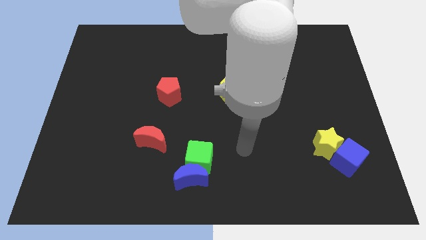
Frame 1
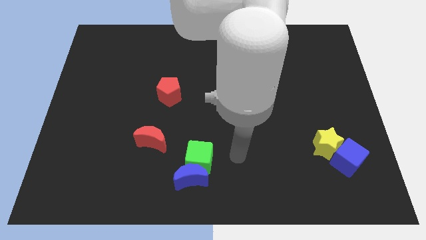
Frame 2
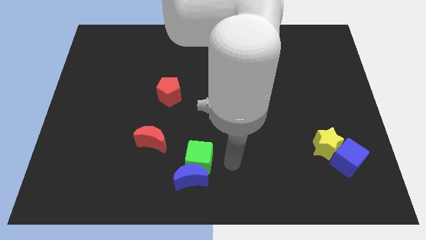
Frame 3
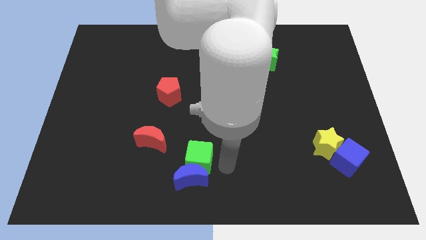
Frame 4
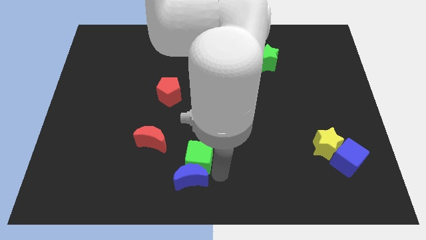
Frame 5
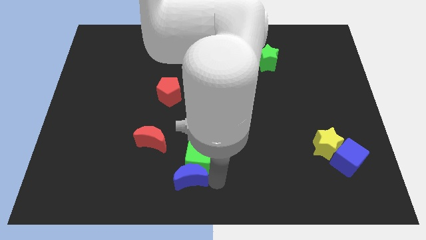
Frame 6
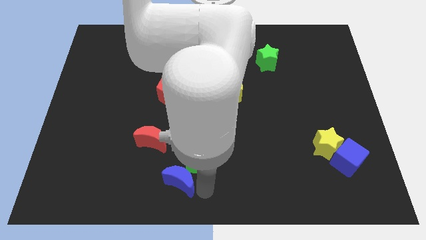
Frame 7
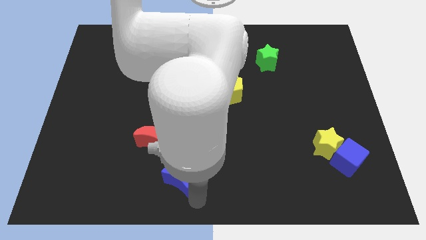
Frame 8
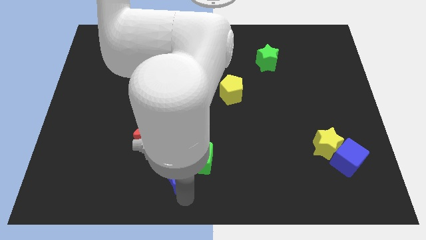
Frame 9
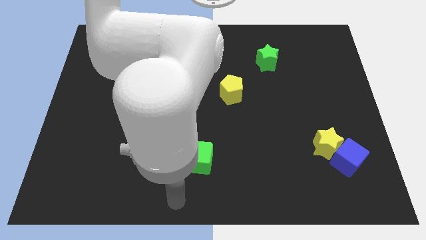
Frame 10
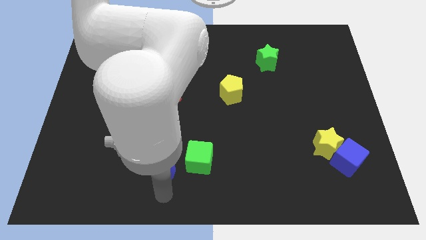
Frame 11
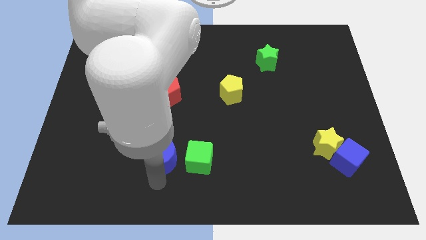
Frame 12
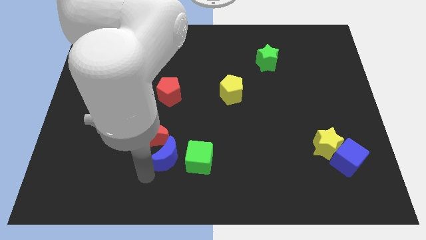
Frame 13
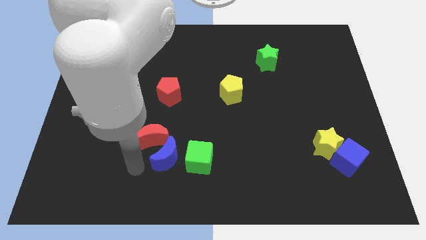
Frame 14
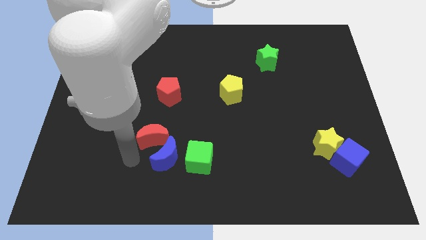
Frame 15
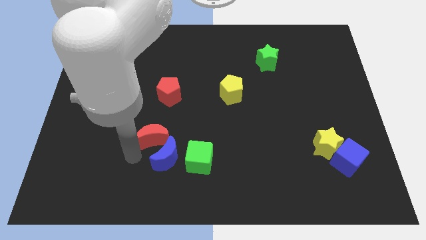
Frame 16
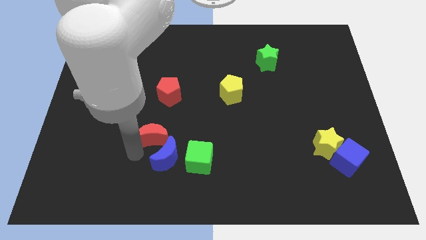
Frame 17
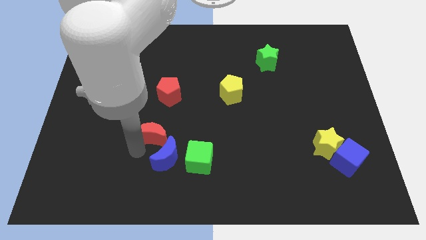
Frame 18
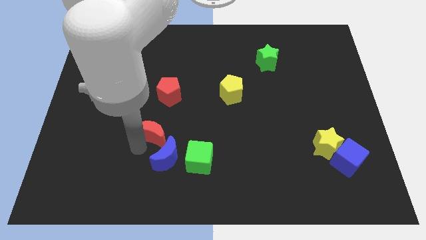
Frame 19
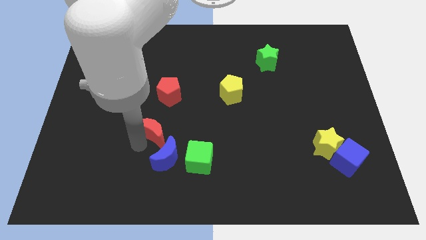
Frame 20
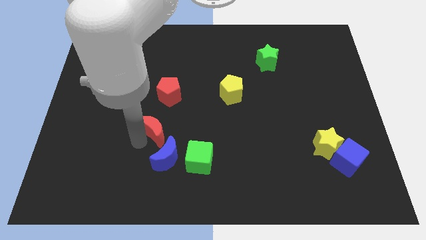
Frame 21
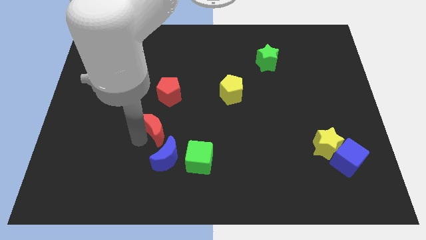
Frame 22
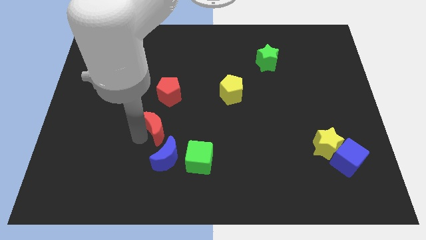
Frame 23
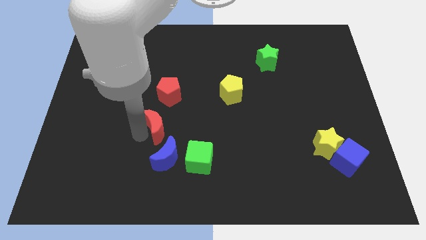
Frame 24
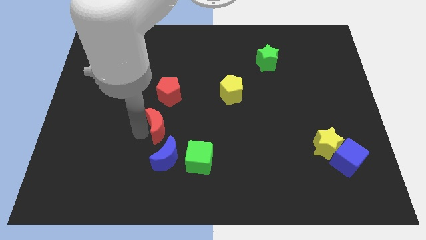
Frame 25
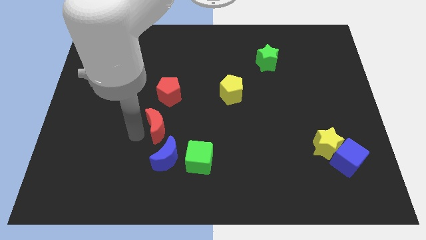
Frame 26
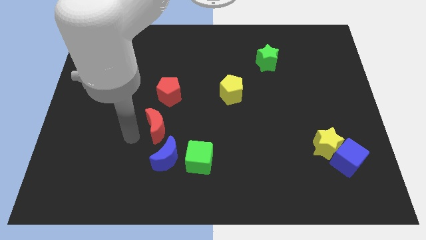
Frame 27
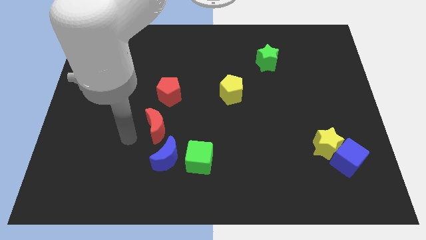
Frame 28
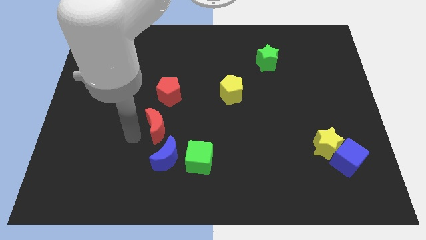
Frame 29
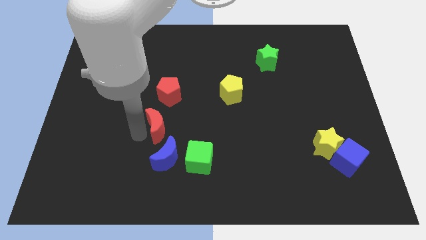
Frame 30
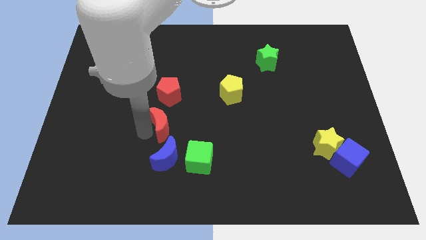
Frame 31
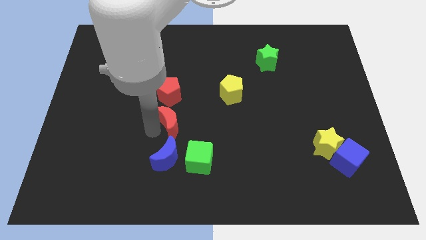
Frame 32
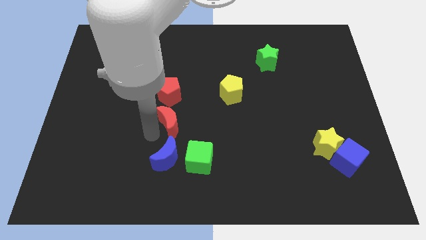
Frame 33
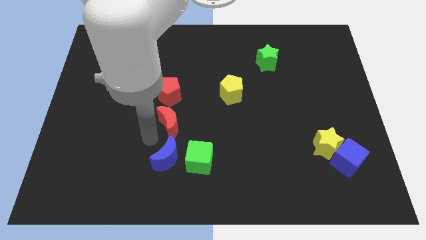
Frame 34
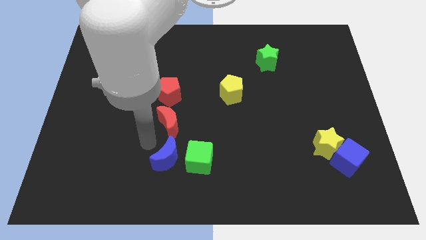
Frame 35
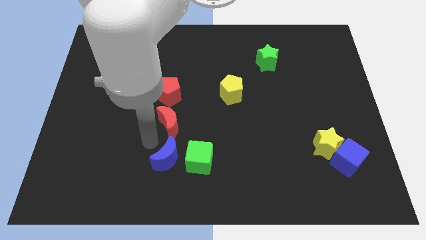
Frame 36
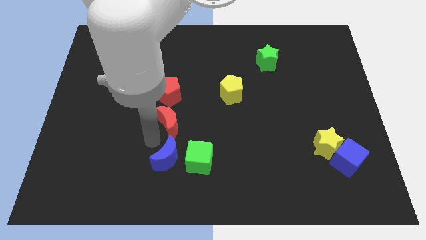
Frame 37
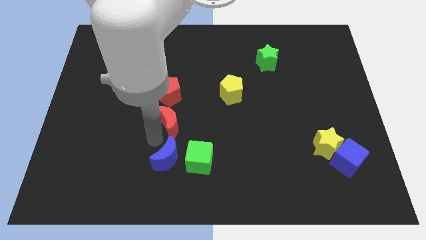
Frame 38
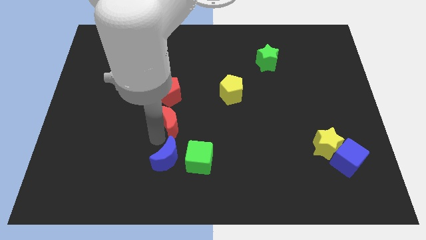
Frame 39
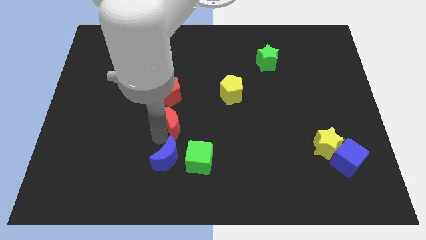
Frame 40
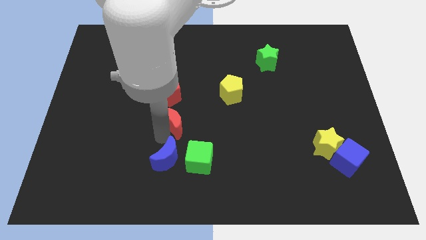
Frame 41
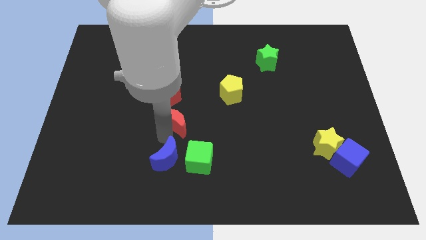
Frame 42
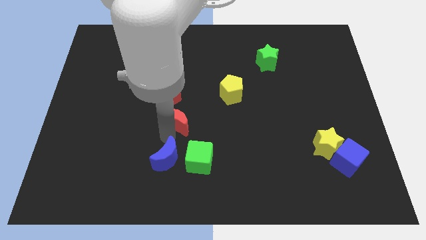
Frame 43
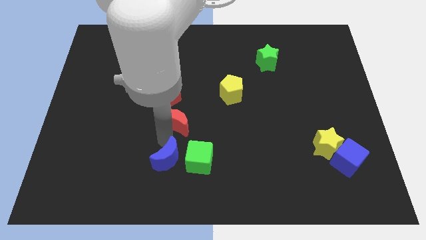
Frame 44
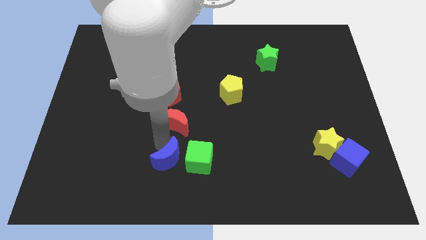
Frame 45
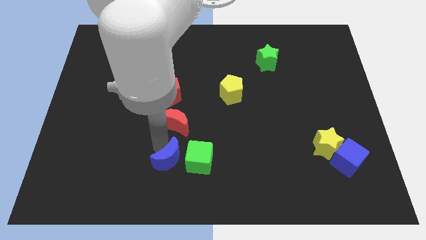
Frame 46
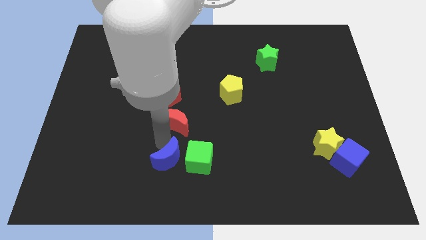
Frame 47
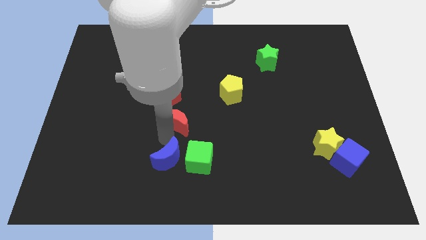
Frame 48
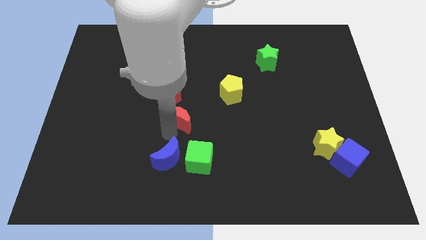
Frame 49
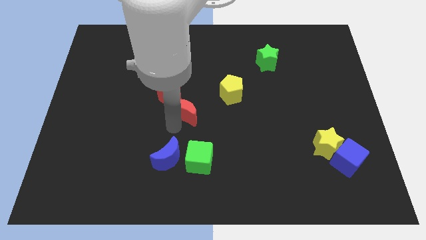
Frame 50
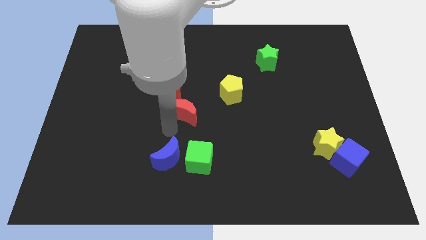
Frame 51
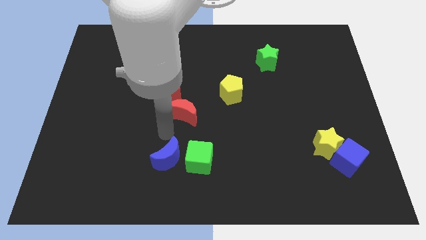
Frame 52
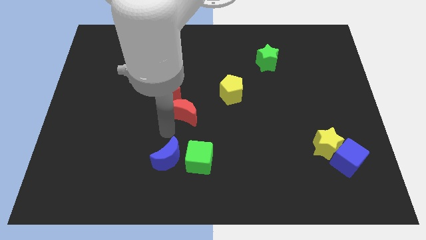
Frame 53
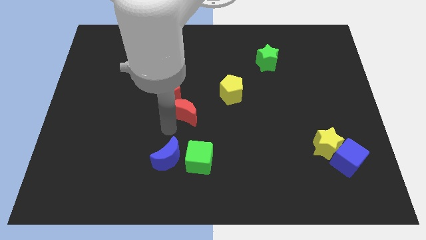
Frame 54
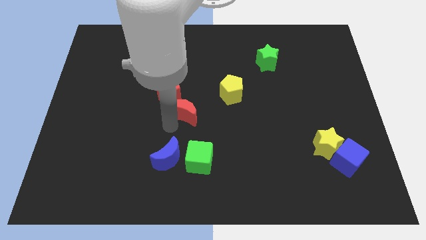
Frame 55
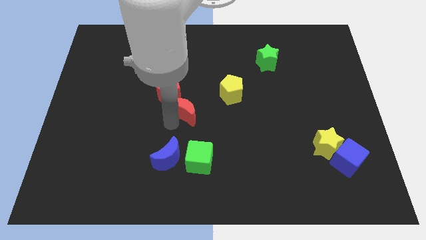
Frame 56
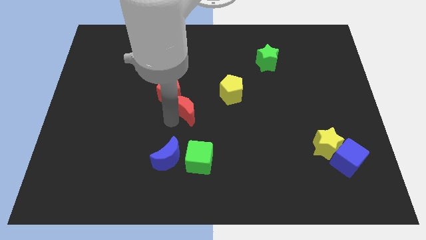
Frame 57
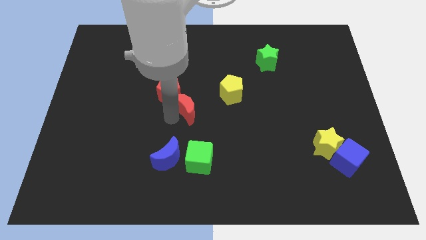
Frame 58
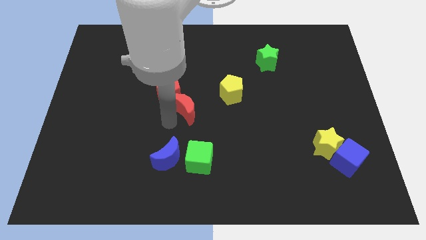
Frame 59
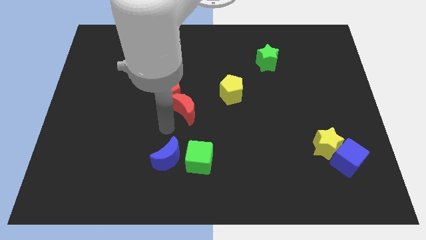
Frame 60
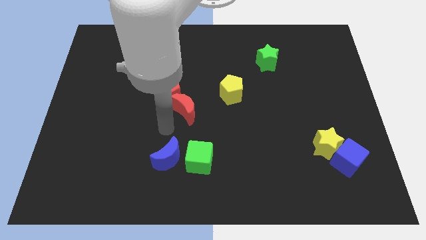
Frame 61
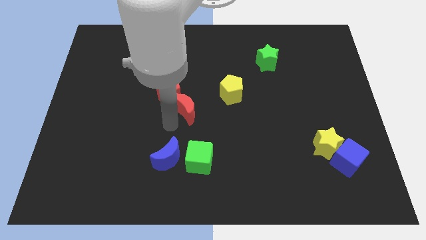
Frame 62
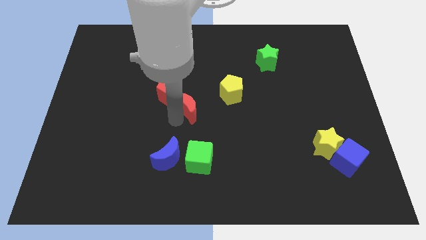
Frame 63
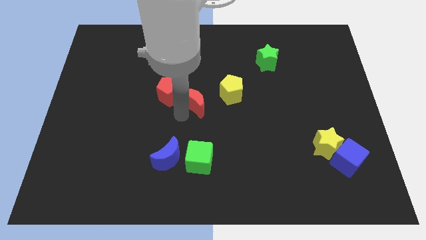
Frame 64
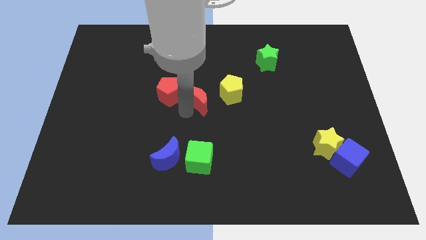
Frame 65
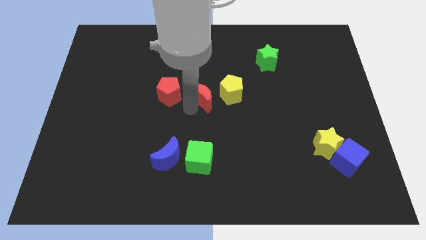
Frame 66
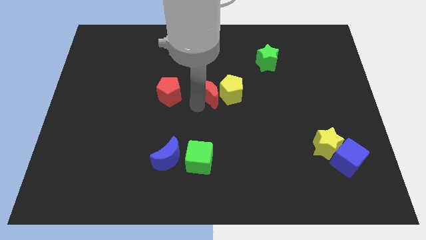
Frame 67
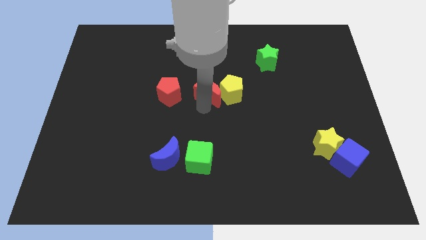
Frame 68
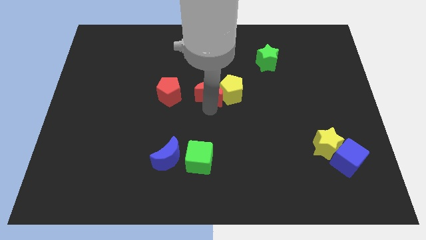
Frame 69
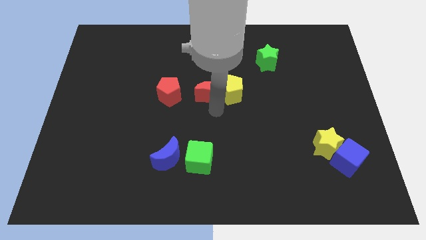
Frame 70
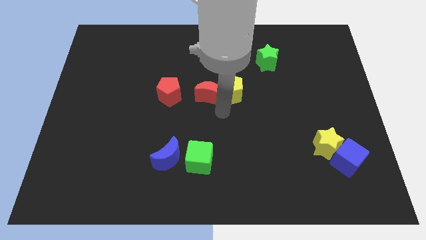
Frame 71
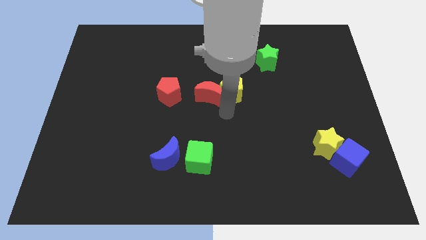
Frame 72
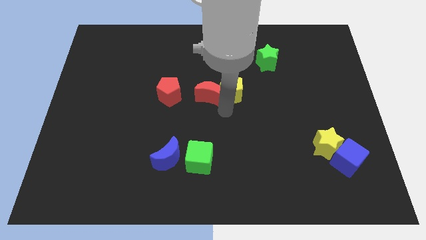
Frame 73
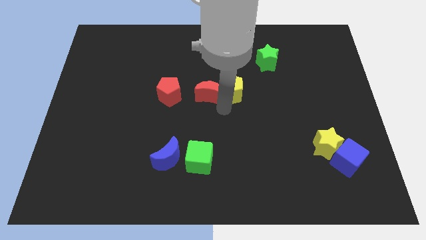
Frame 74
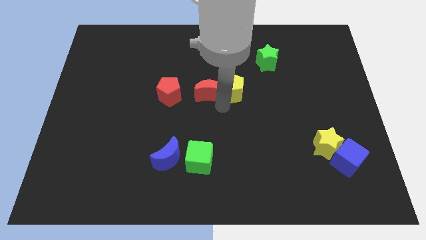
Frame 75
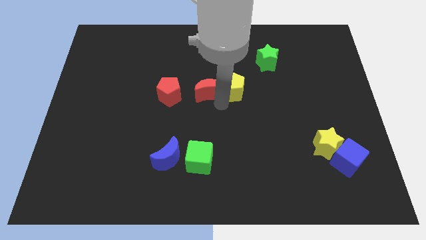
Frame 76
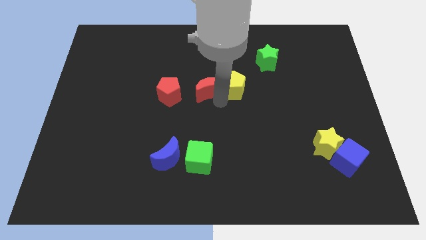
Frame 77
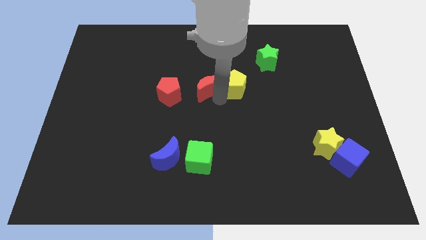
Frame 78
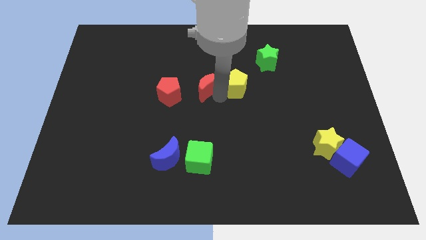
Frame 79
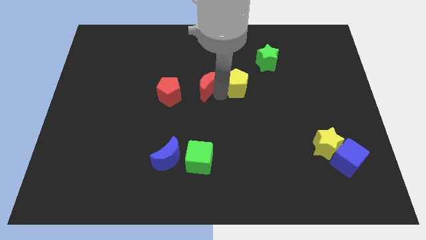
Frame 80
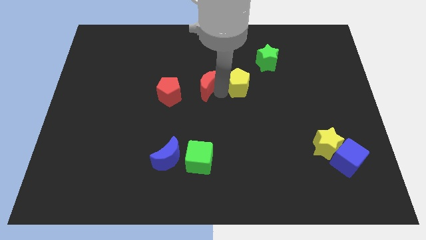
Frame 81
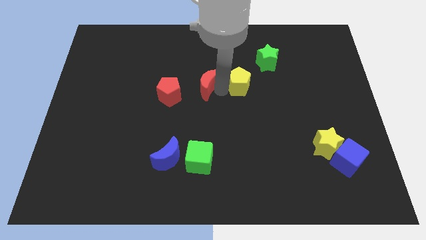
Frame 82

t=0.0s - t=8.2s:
move the red moon diagonally up and to the right of the red pentagon
